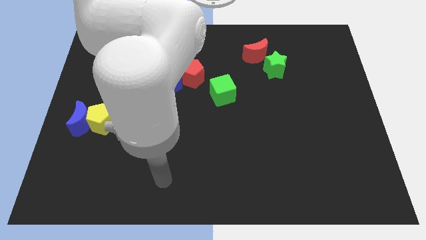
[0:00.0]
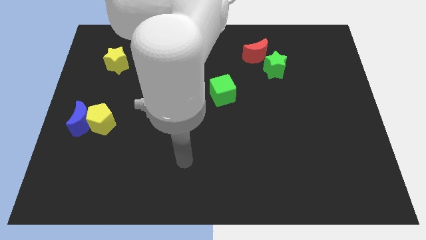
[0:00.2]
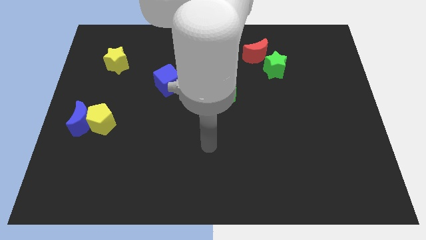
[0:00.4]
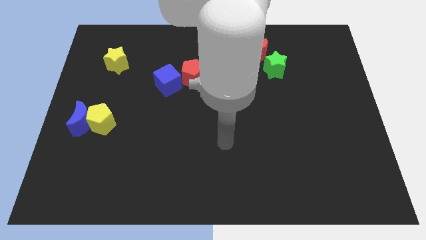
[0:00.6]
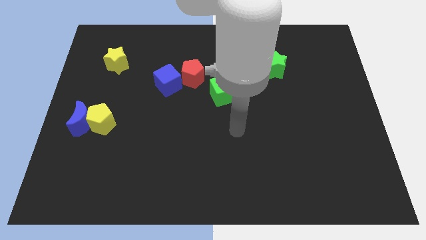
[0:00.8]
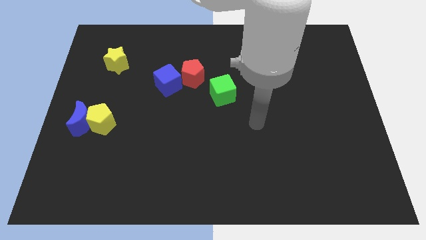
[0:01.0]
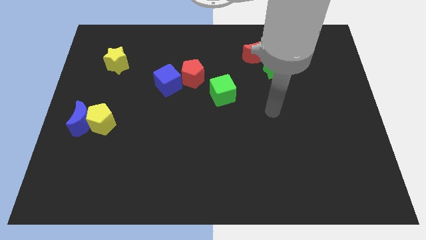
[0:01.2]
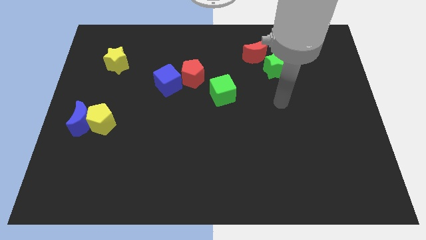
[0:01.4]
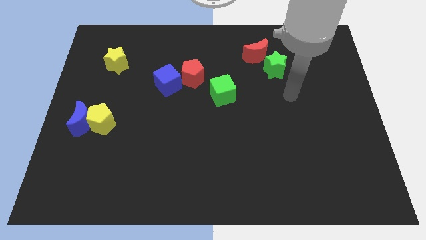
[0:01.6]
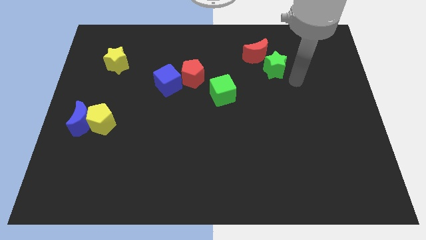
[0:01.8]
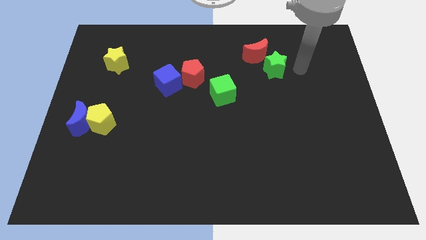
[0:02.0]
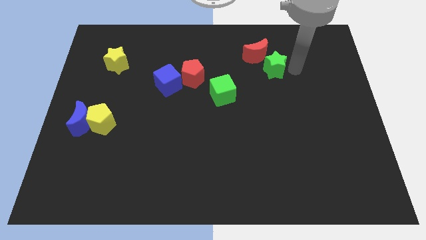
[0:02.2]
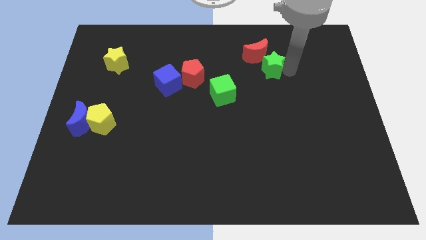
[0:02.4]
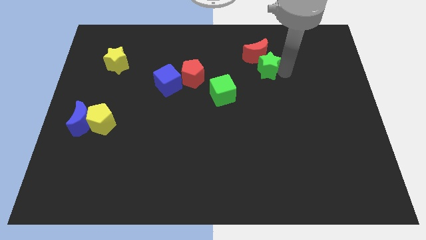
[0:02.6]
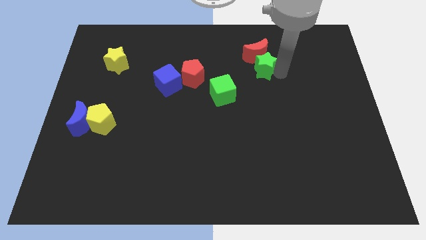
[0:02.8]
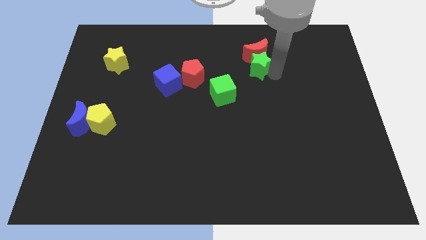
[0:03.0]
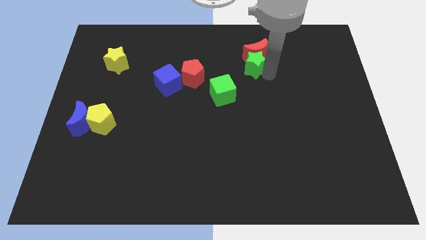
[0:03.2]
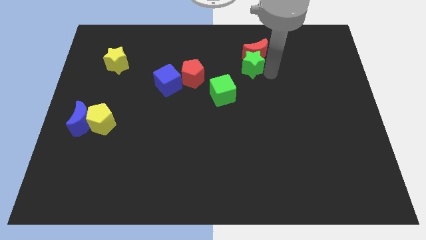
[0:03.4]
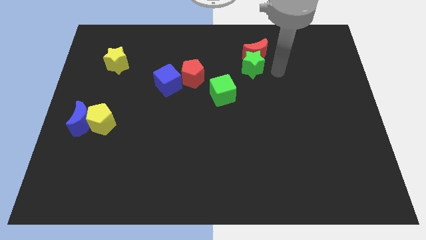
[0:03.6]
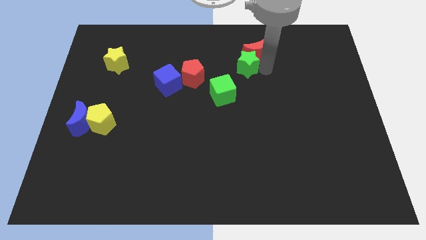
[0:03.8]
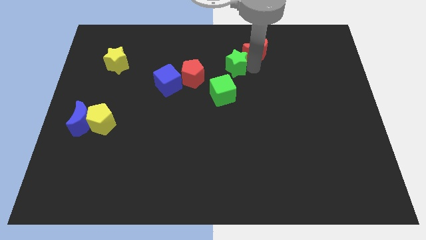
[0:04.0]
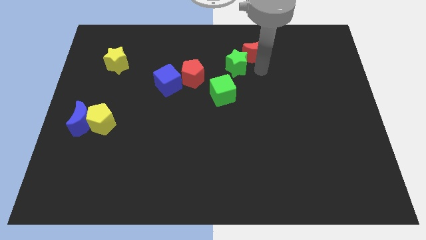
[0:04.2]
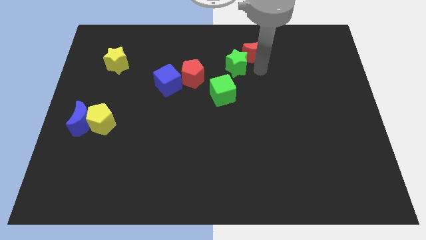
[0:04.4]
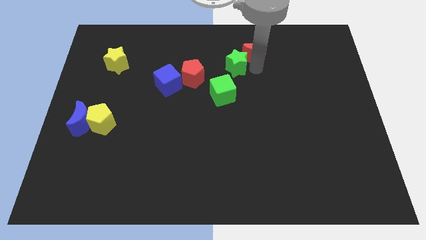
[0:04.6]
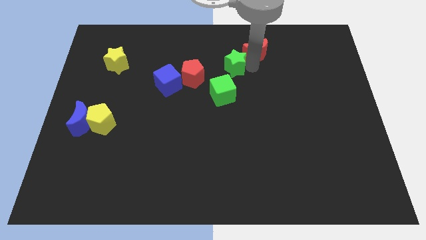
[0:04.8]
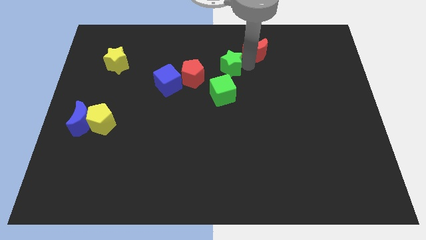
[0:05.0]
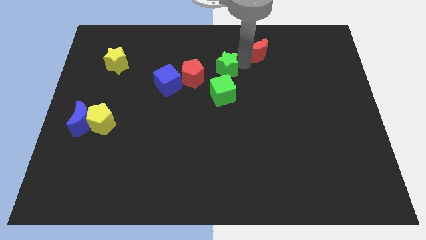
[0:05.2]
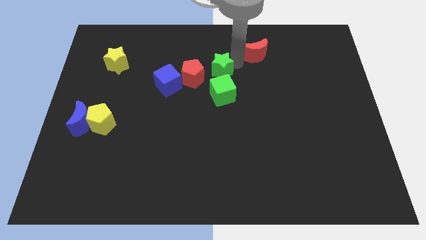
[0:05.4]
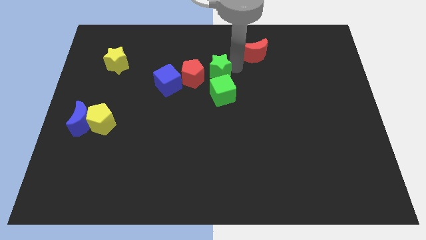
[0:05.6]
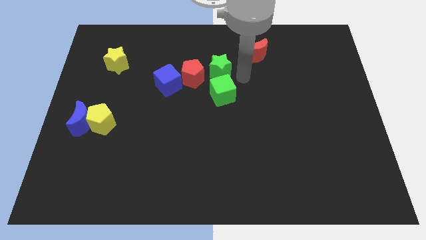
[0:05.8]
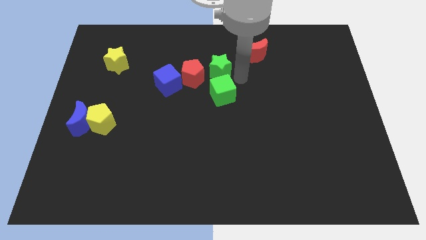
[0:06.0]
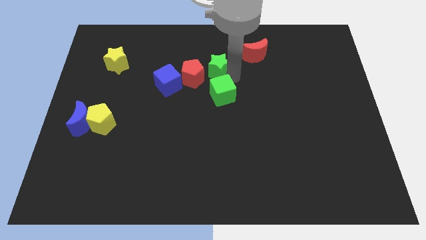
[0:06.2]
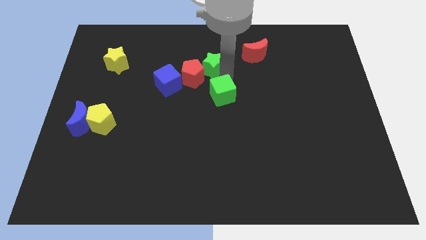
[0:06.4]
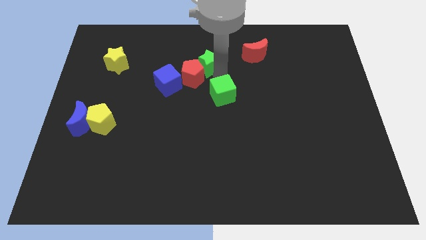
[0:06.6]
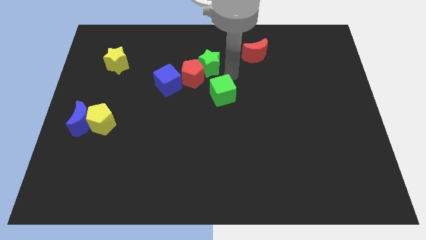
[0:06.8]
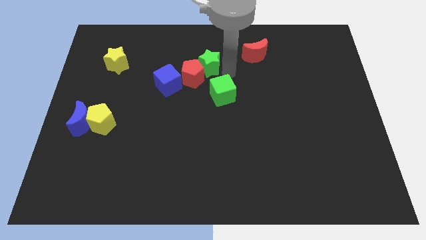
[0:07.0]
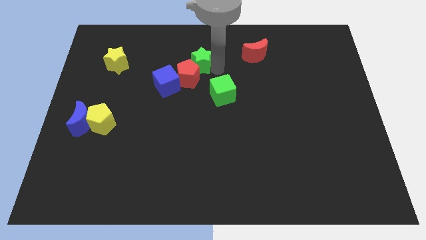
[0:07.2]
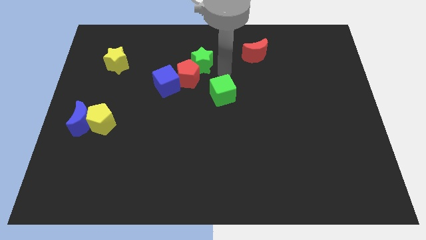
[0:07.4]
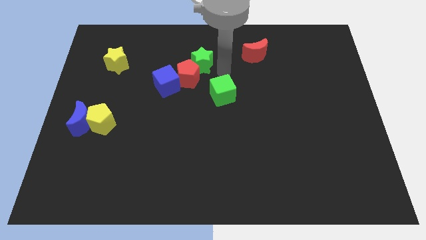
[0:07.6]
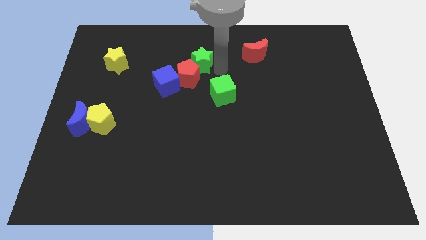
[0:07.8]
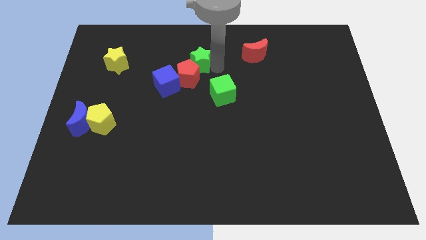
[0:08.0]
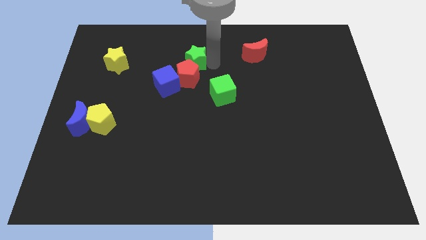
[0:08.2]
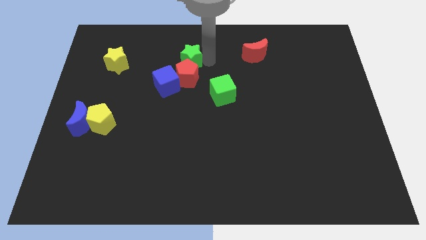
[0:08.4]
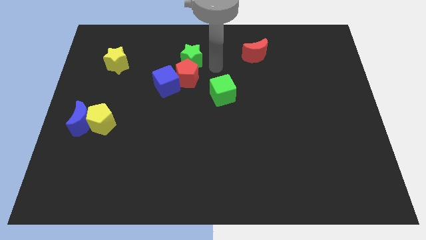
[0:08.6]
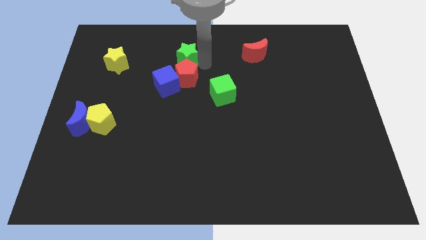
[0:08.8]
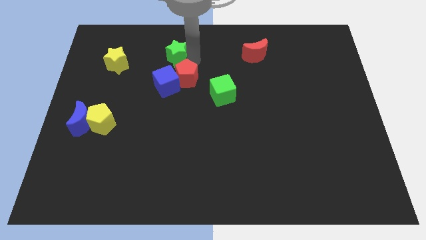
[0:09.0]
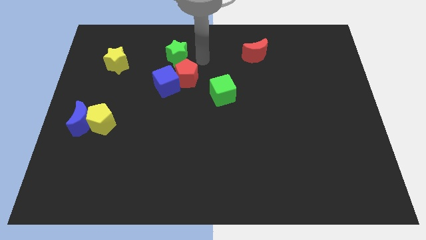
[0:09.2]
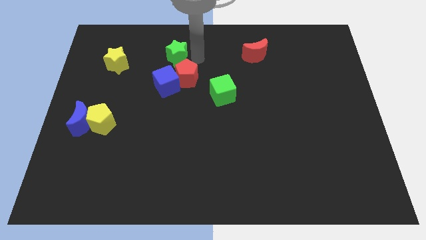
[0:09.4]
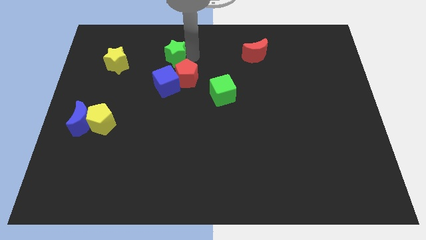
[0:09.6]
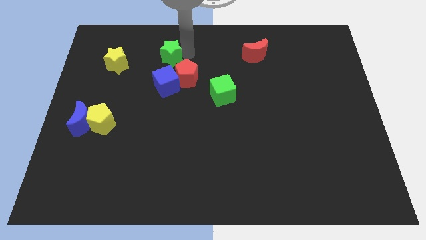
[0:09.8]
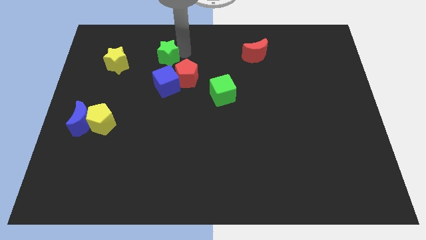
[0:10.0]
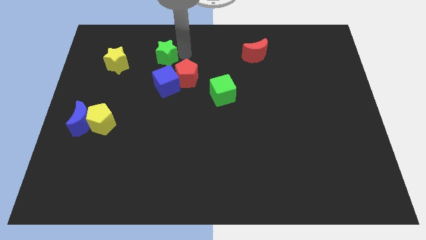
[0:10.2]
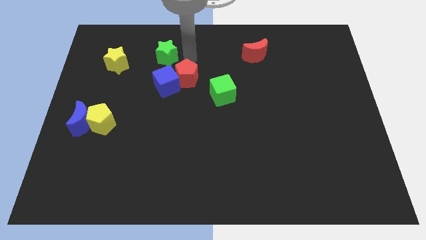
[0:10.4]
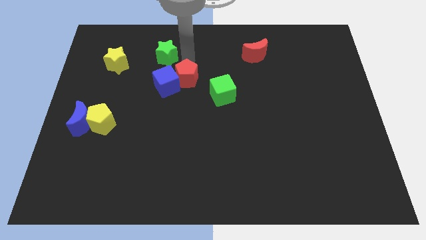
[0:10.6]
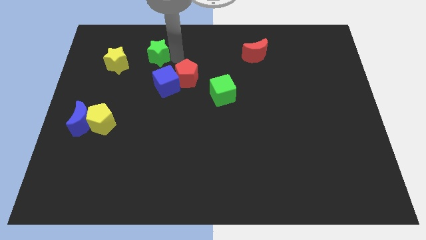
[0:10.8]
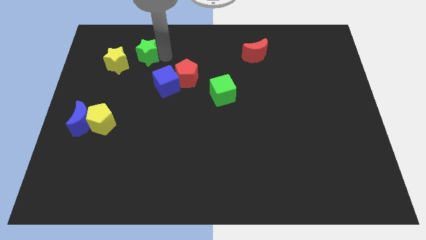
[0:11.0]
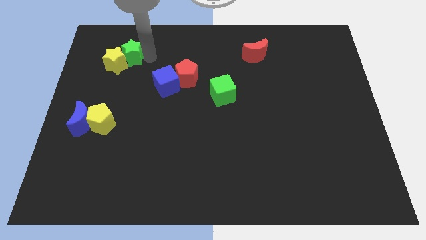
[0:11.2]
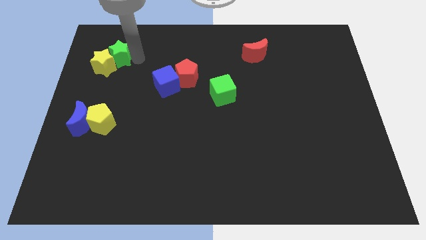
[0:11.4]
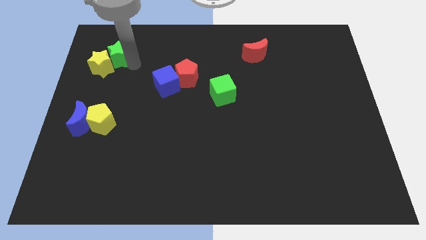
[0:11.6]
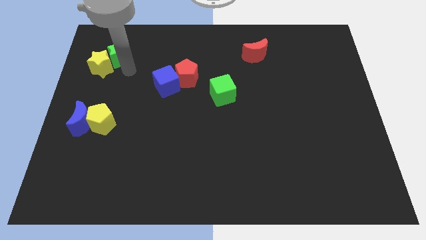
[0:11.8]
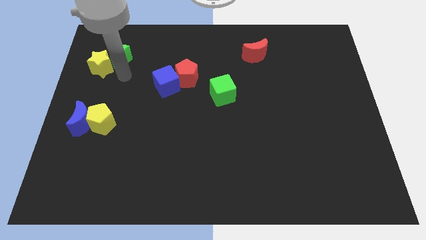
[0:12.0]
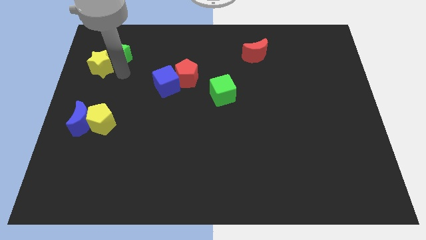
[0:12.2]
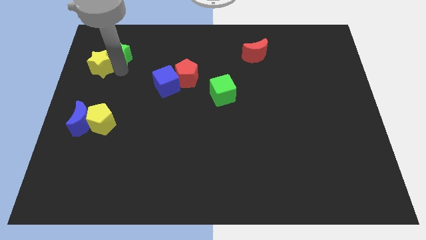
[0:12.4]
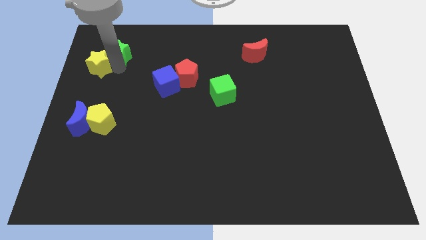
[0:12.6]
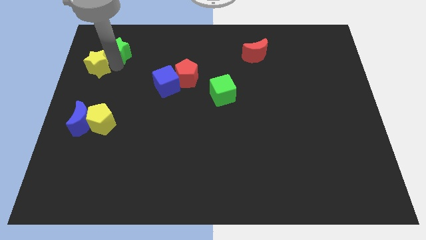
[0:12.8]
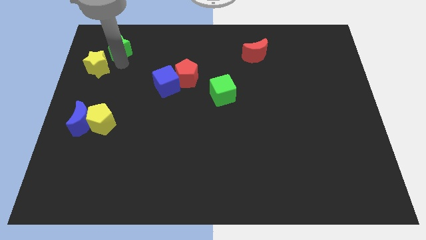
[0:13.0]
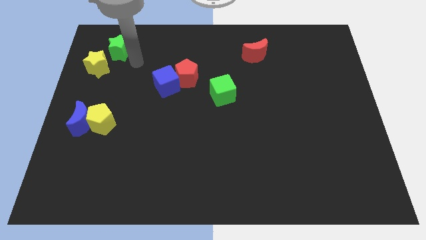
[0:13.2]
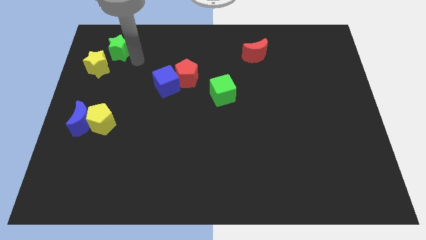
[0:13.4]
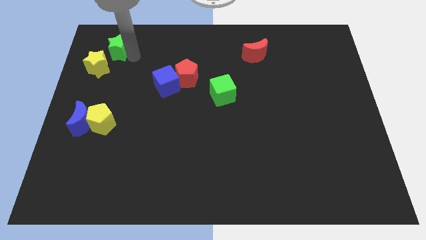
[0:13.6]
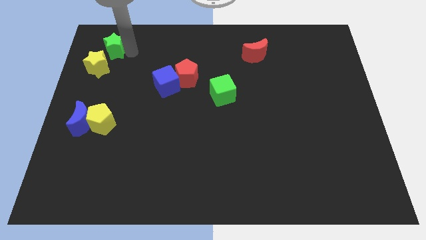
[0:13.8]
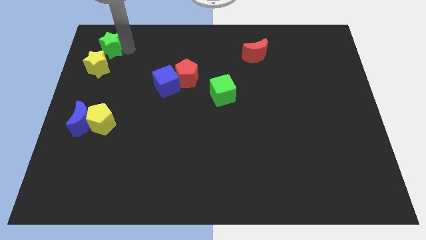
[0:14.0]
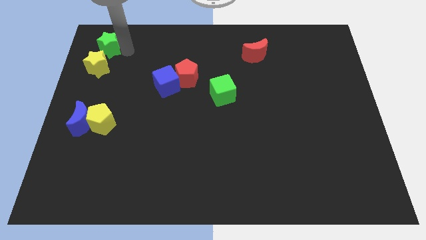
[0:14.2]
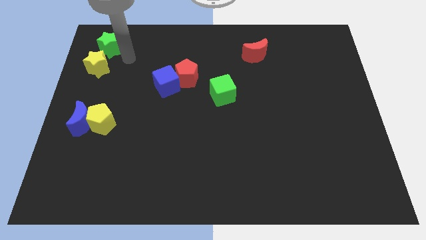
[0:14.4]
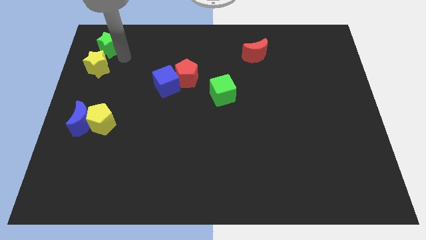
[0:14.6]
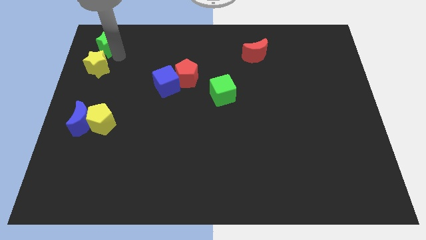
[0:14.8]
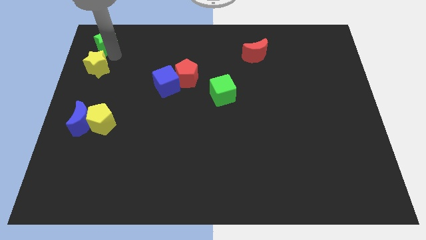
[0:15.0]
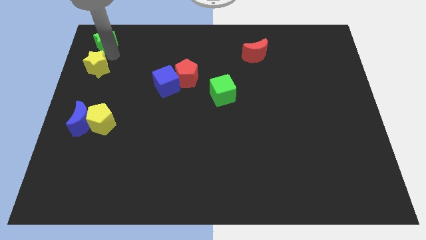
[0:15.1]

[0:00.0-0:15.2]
put the green star to the top left corner
